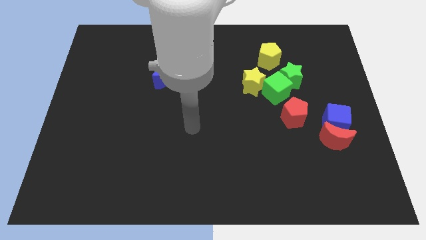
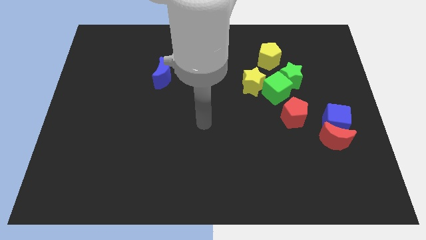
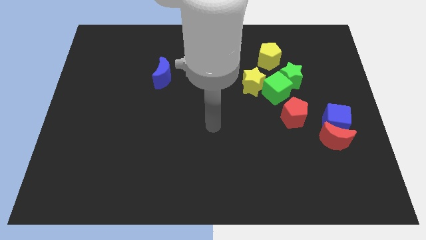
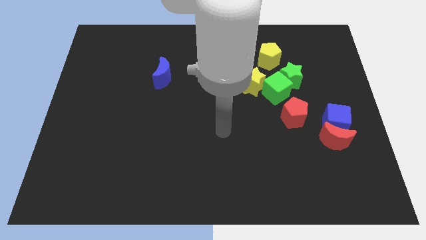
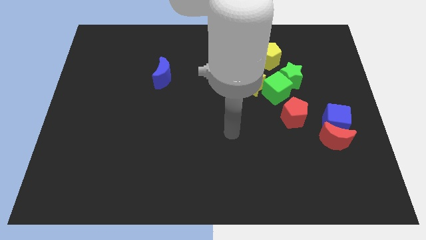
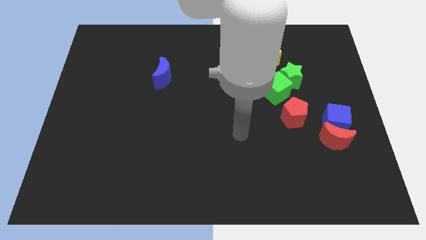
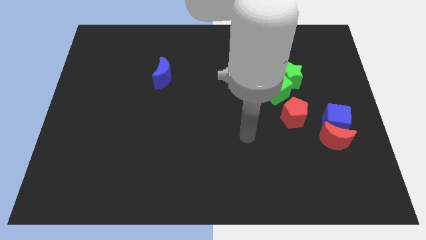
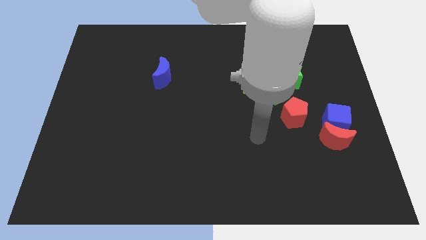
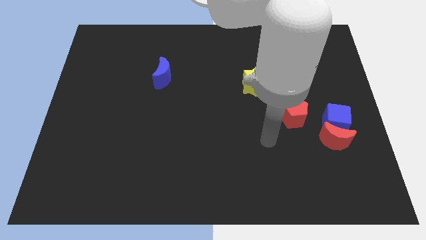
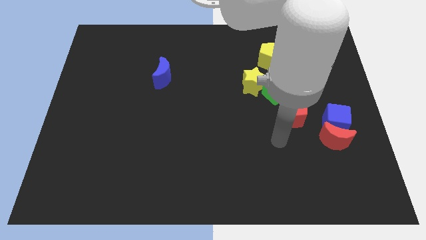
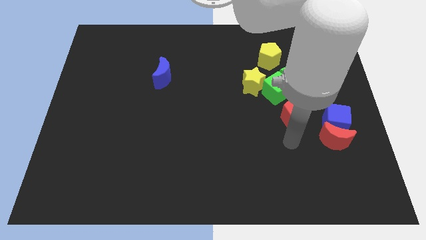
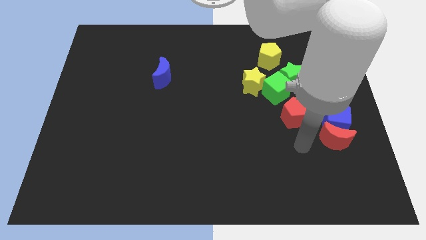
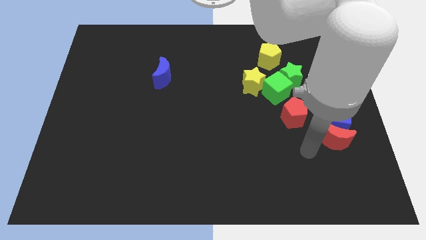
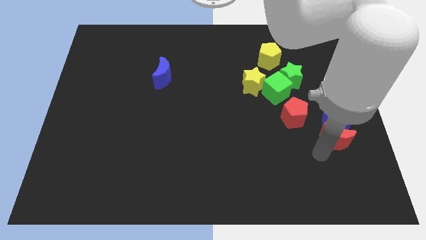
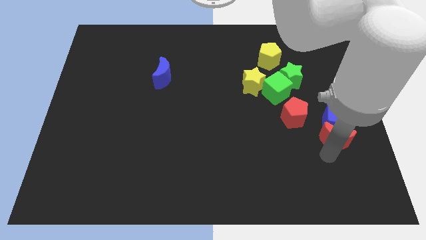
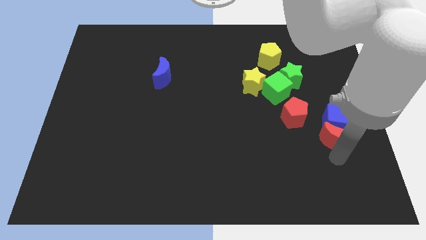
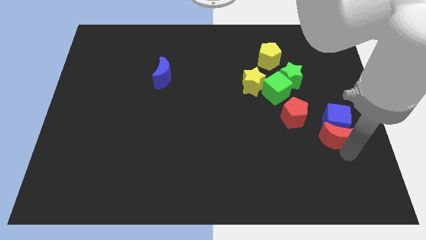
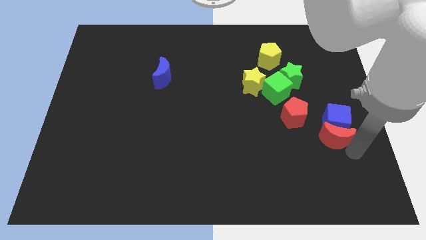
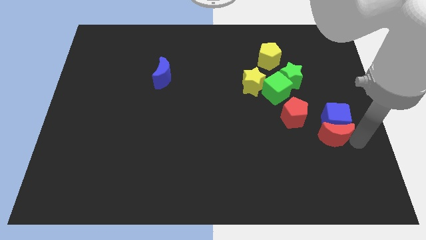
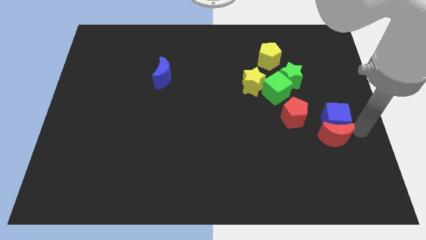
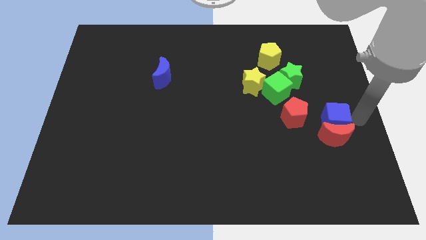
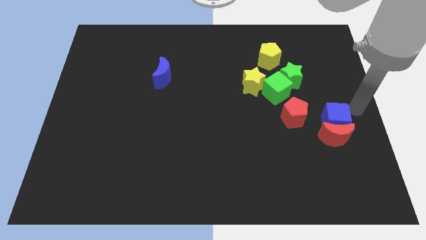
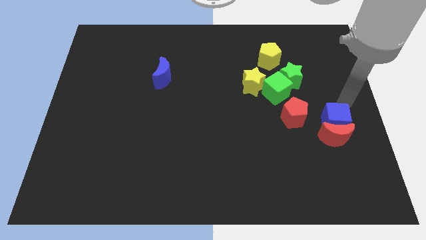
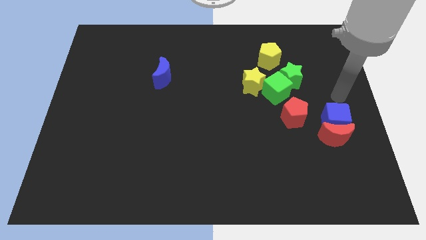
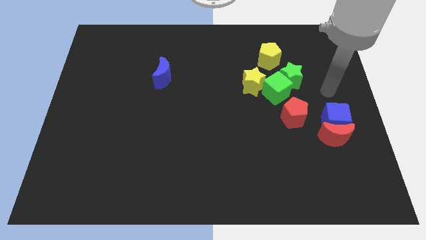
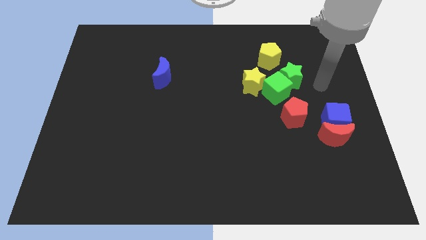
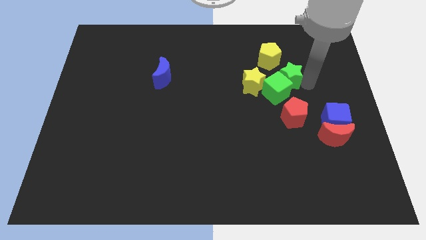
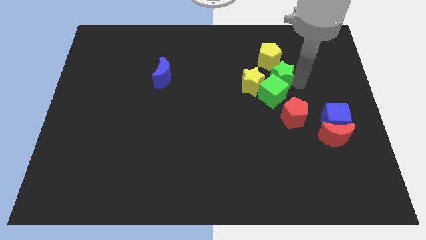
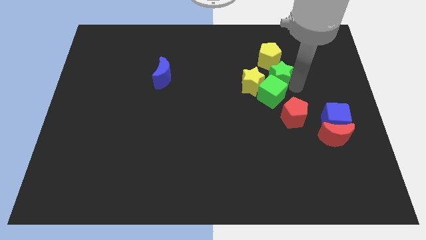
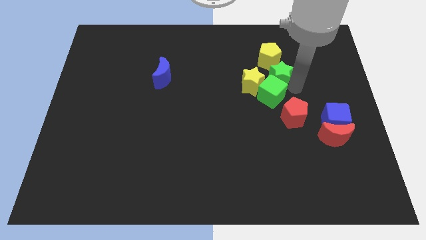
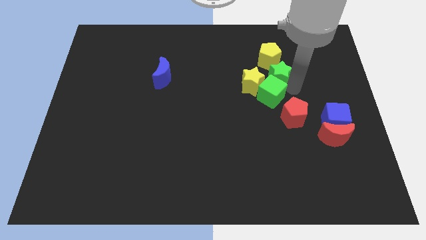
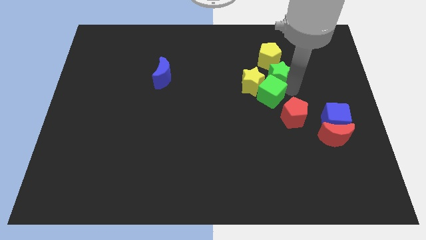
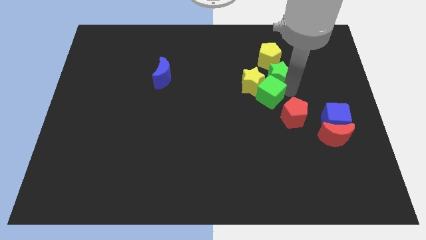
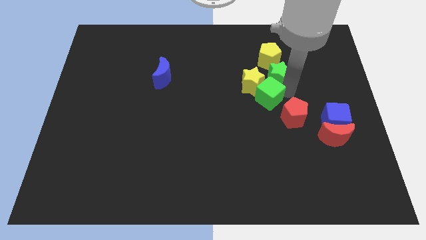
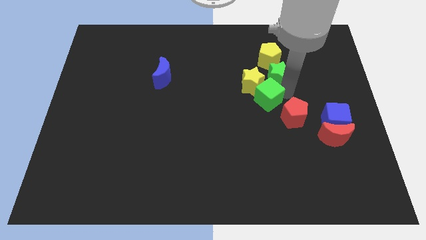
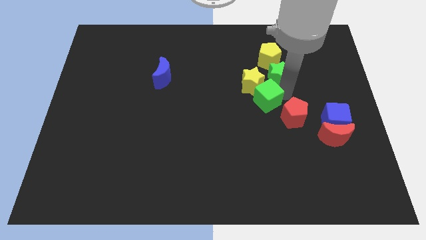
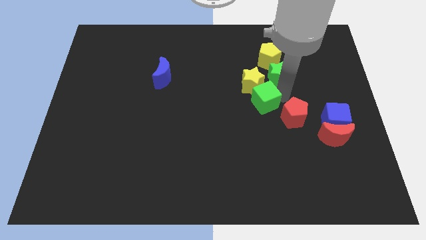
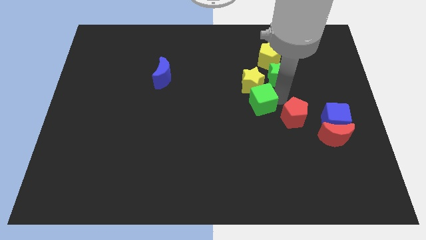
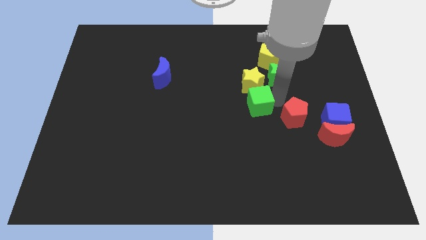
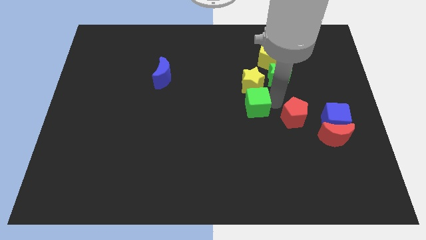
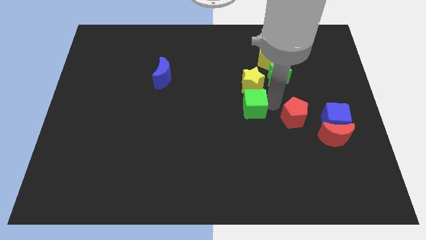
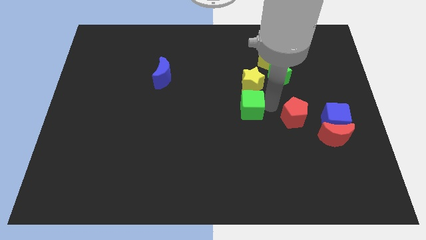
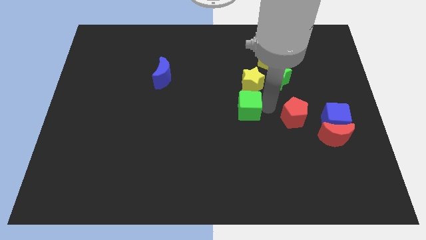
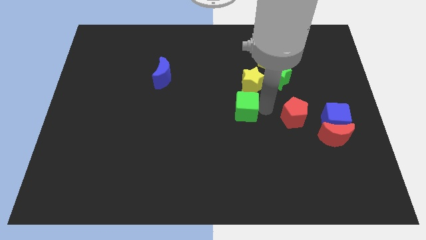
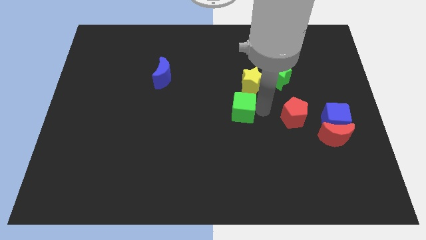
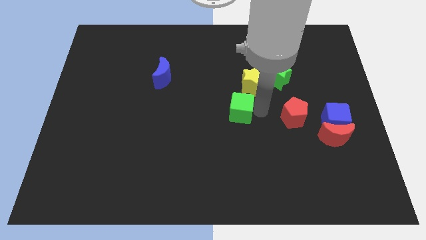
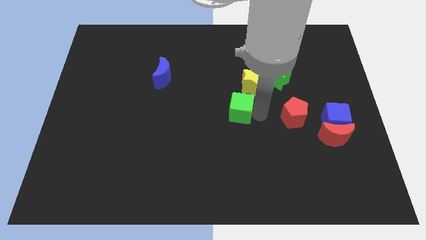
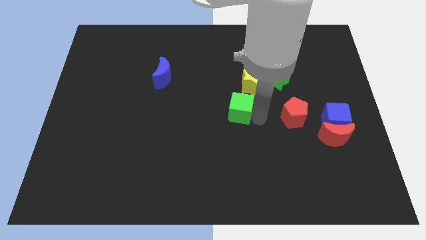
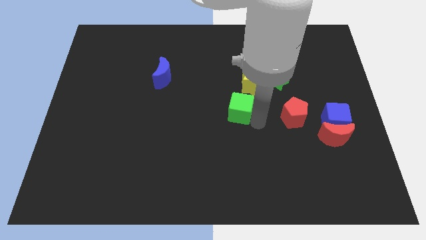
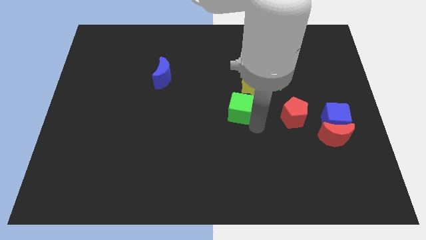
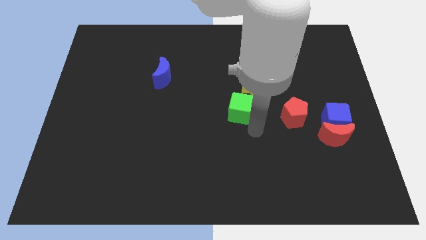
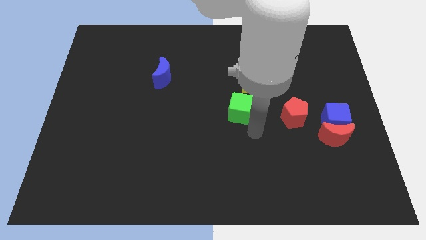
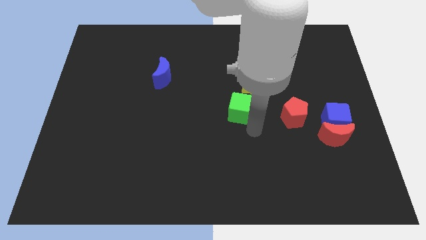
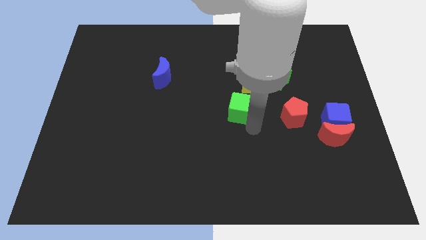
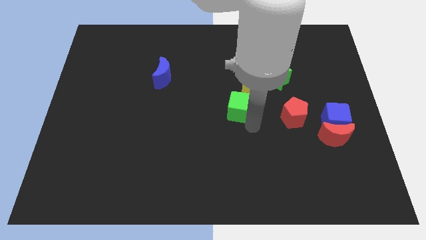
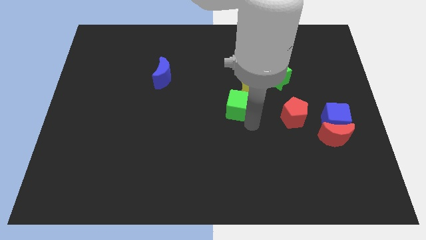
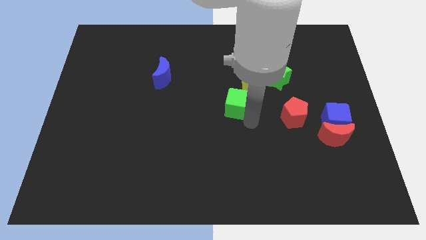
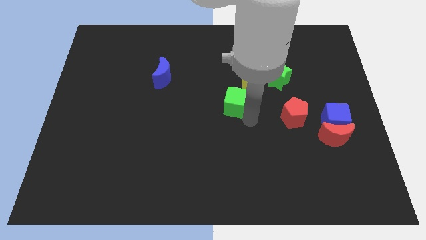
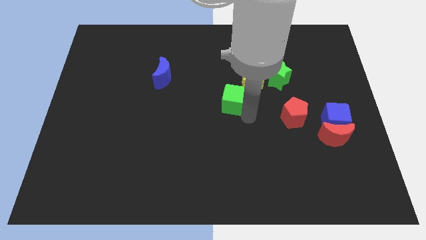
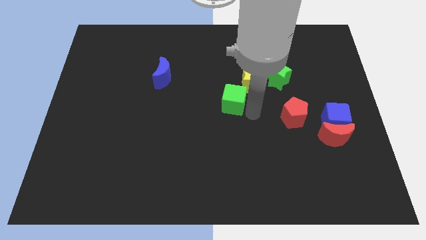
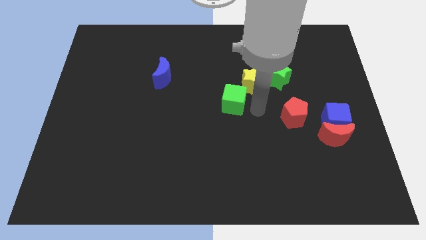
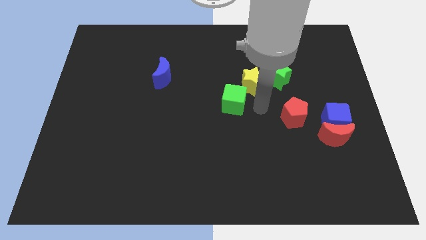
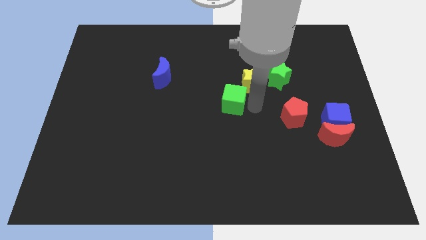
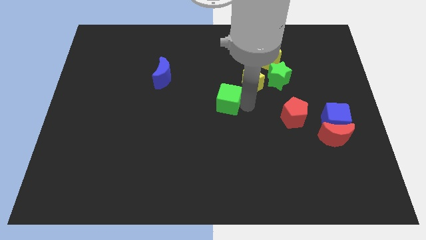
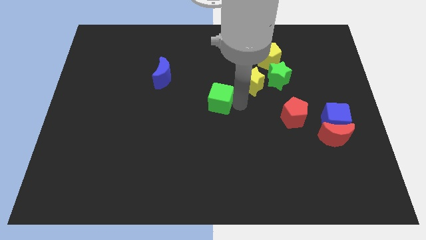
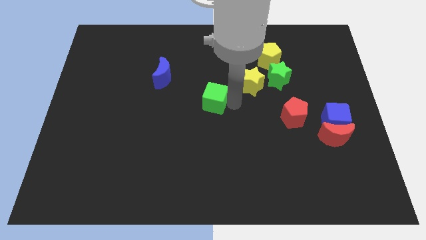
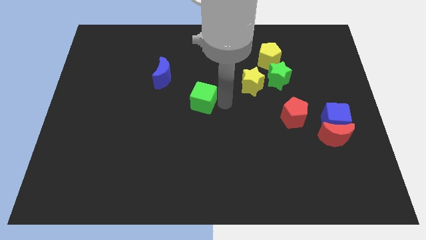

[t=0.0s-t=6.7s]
move the green cube diagonally down and to the right of the blue moon

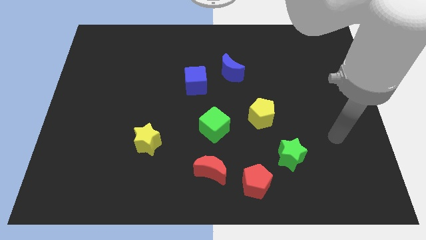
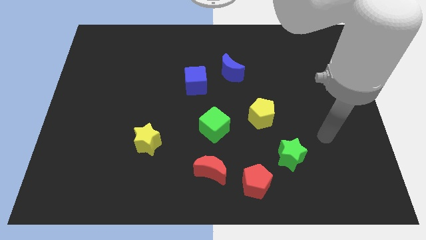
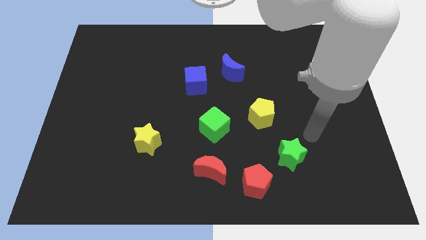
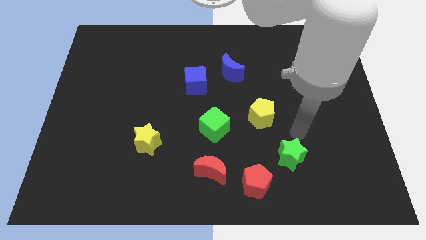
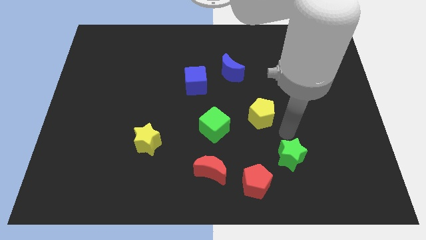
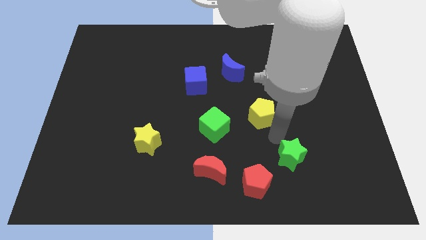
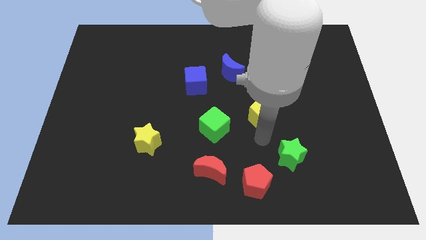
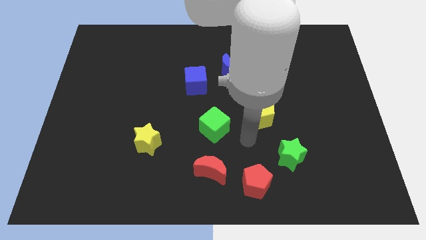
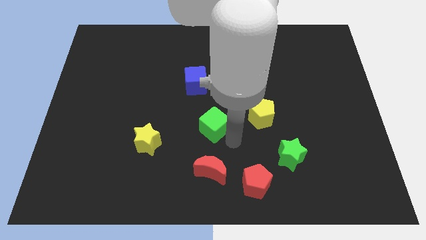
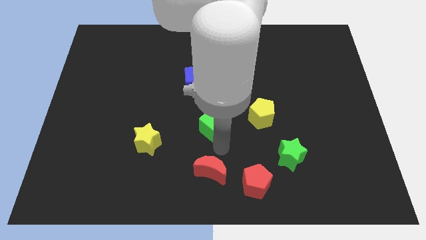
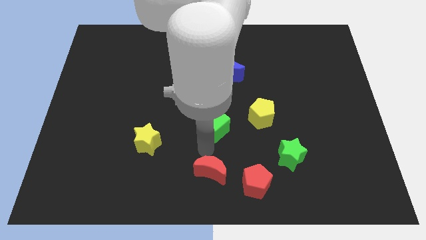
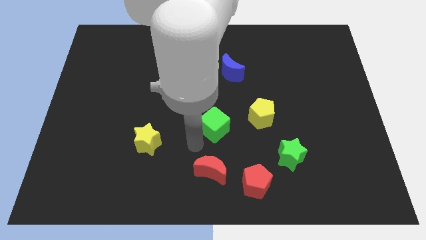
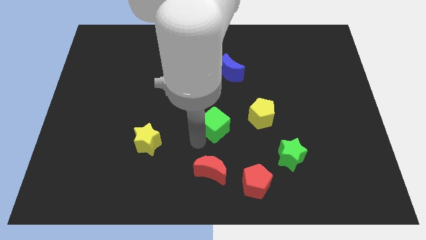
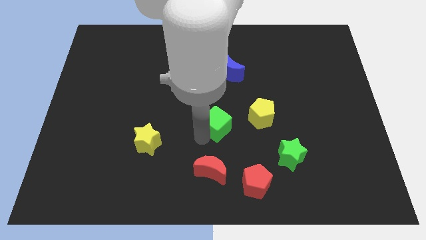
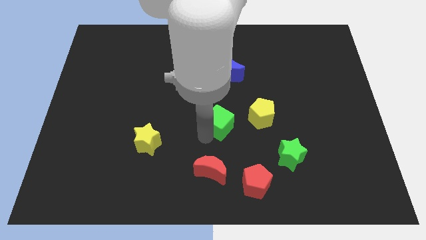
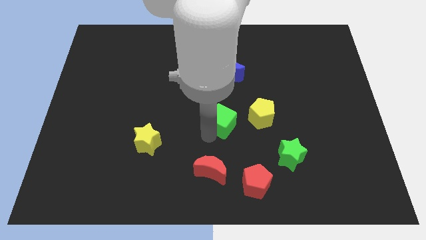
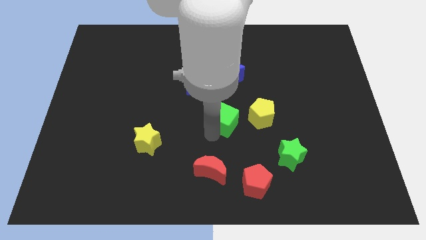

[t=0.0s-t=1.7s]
put the green cube below the blue moon
